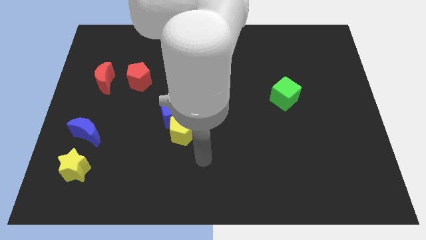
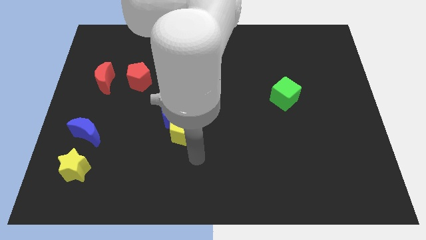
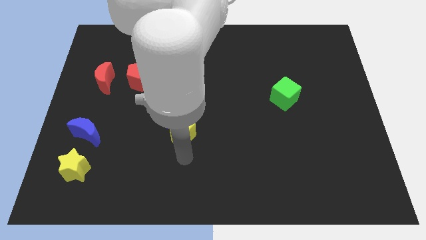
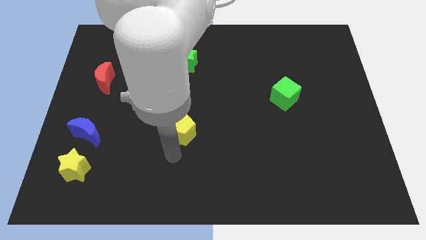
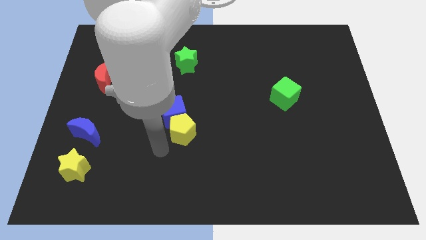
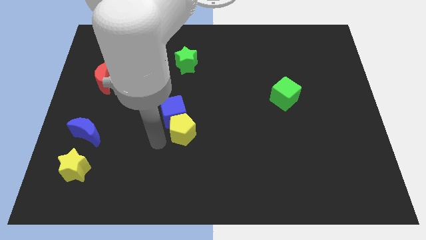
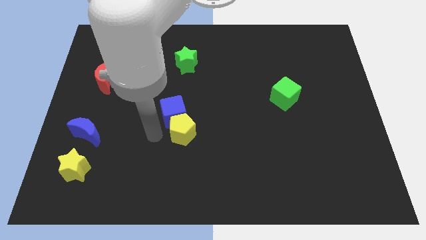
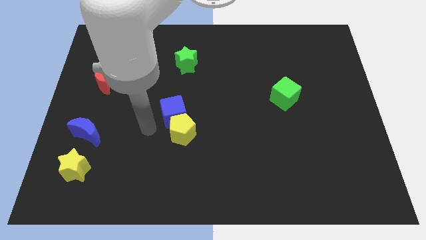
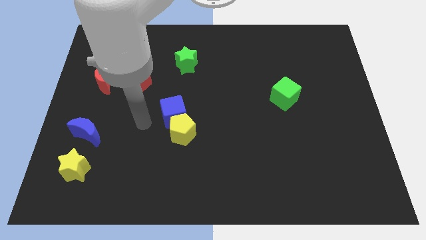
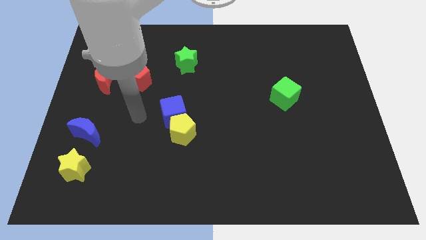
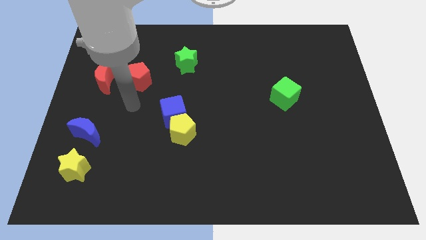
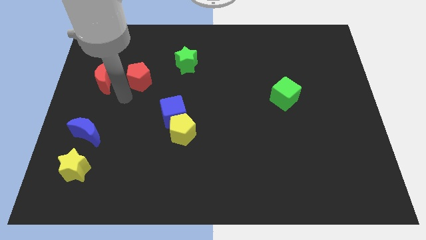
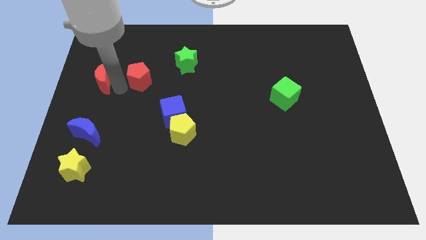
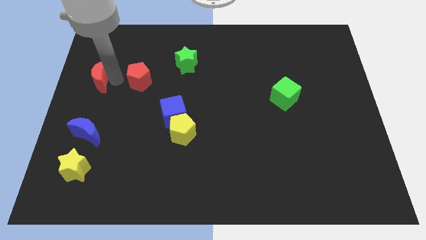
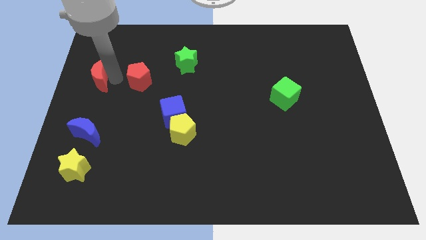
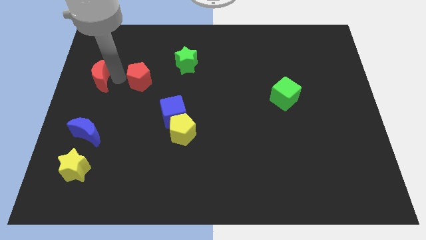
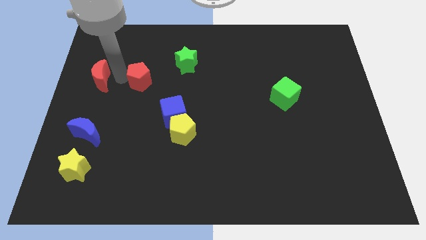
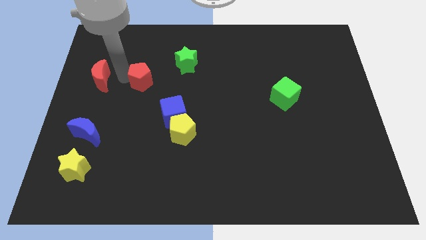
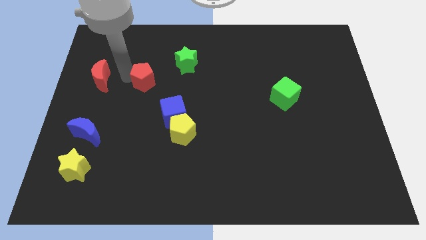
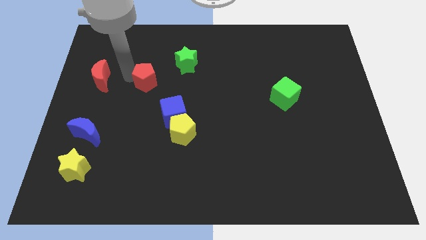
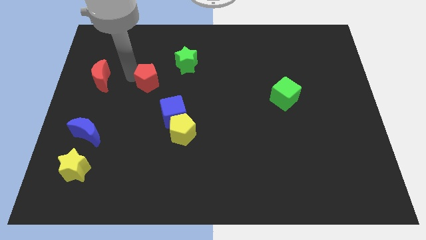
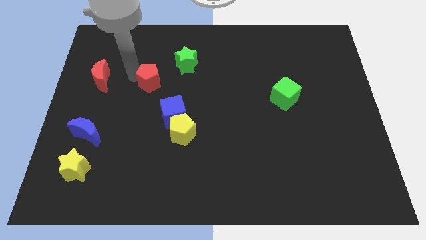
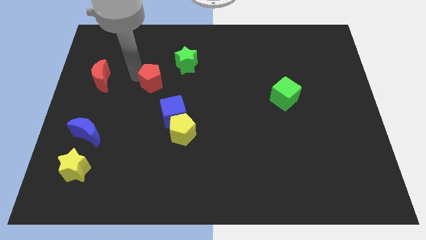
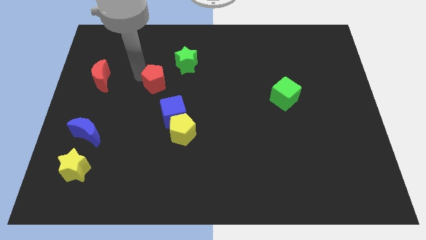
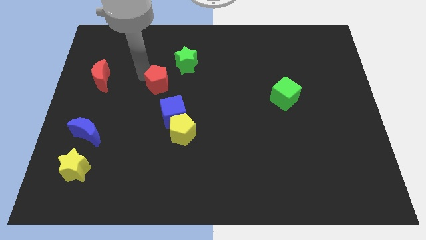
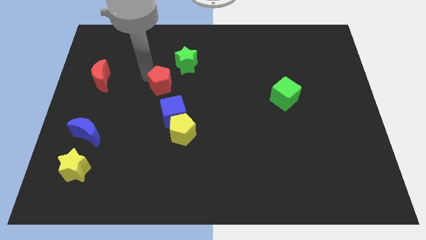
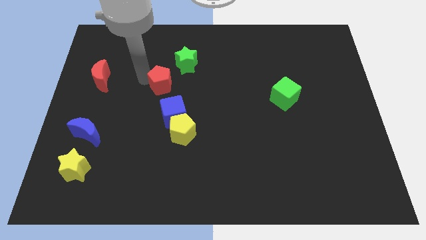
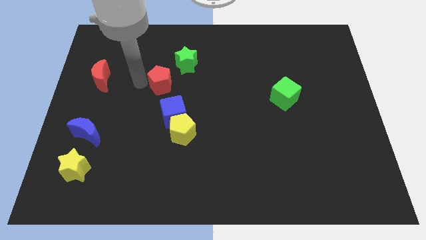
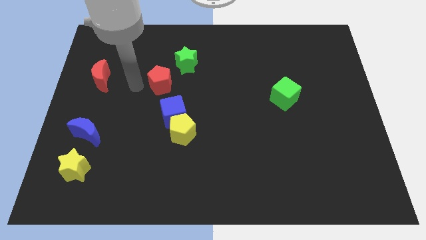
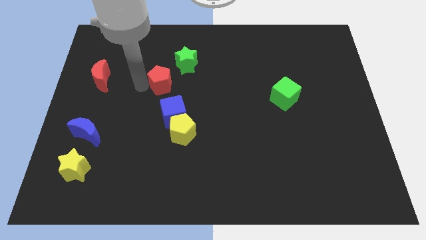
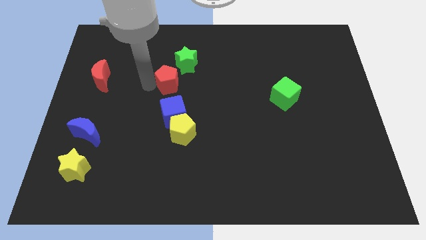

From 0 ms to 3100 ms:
push the red pentagon right a bit

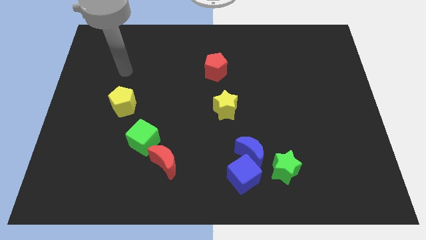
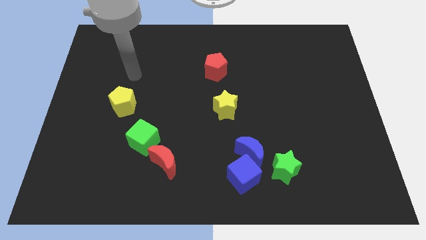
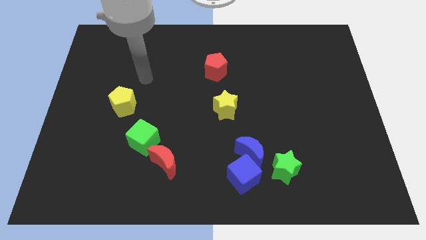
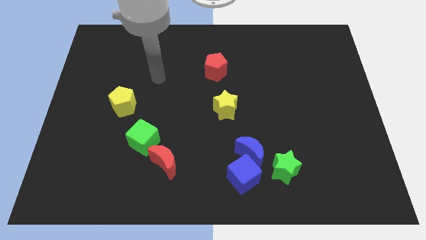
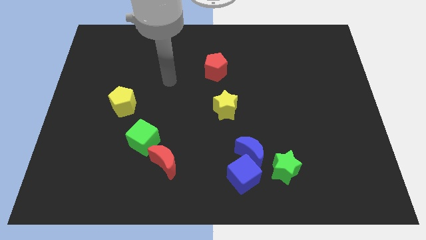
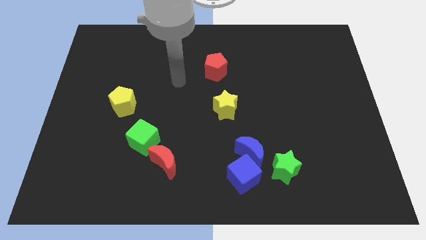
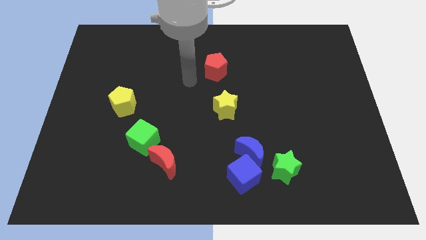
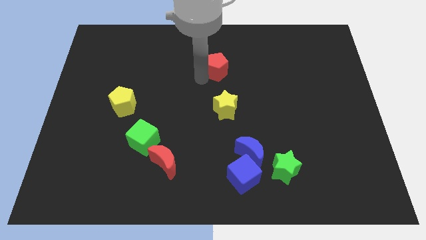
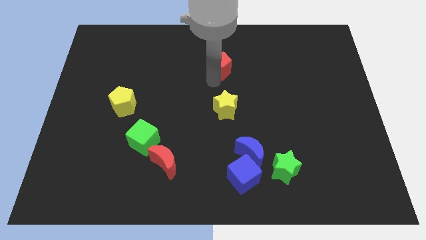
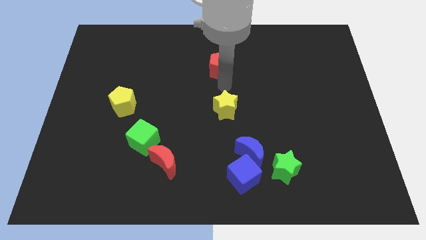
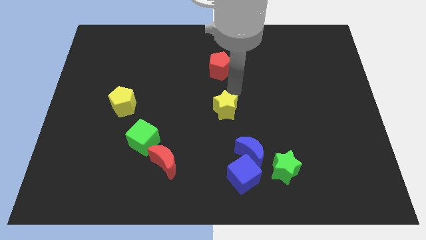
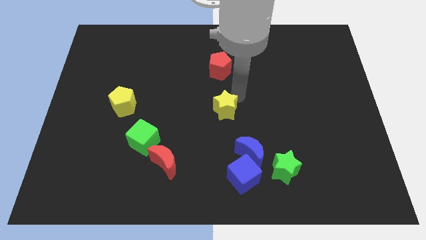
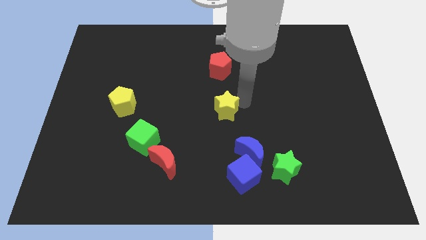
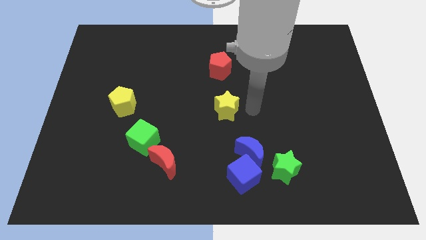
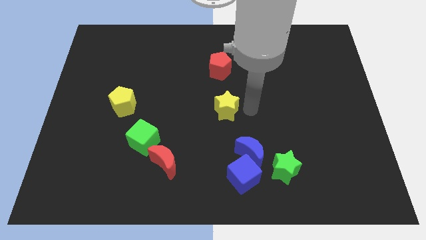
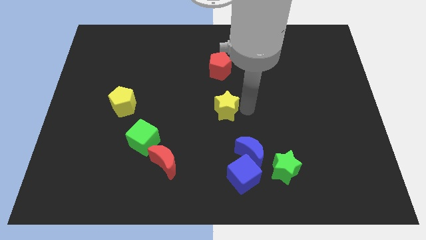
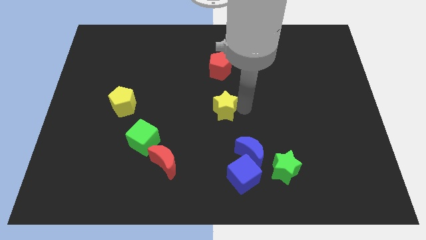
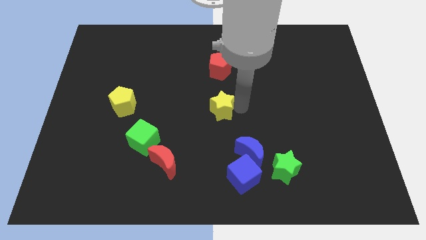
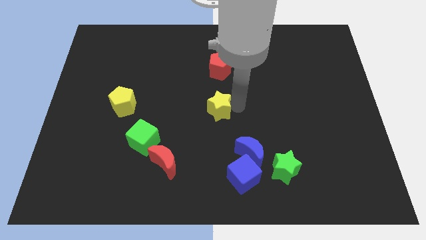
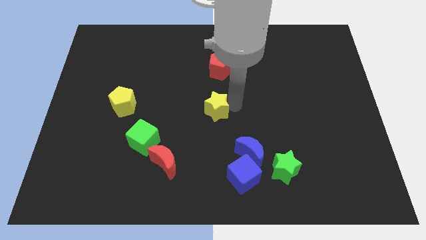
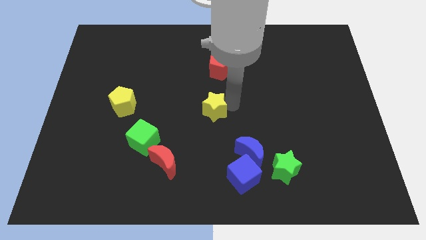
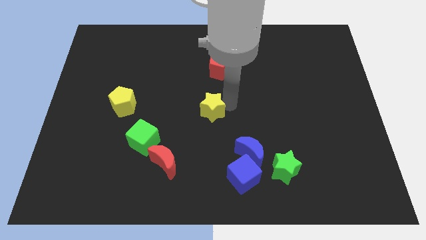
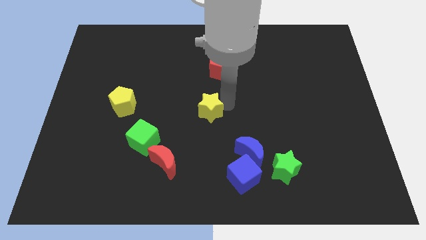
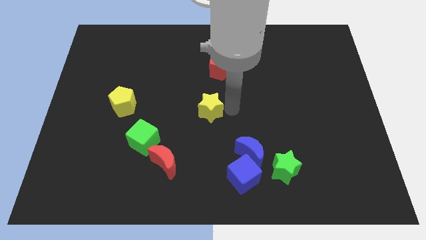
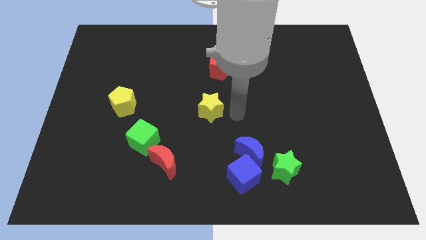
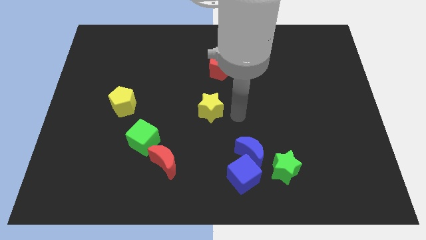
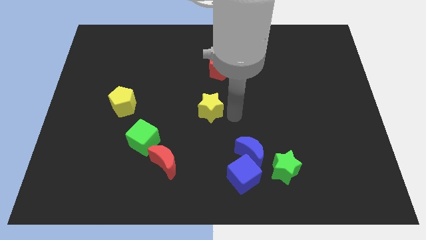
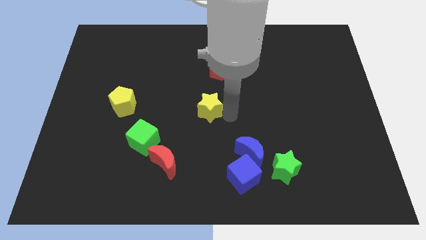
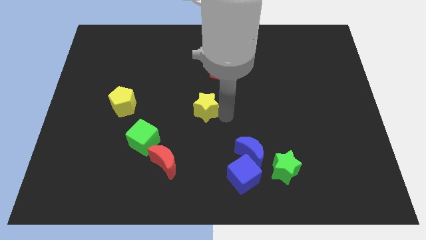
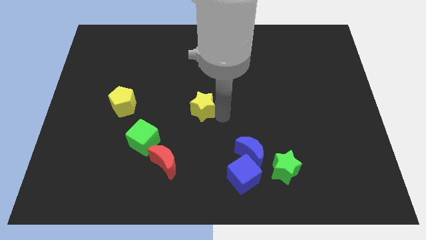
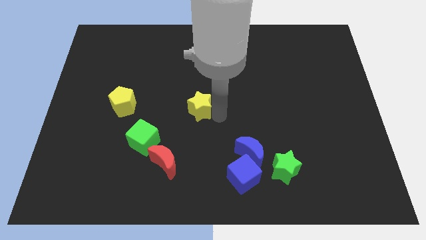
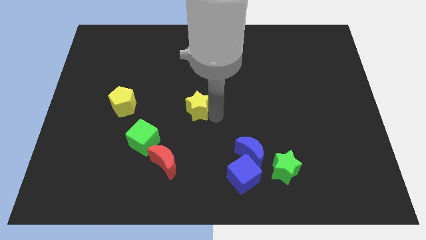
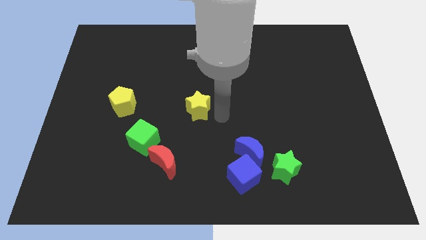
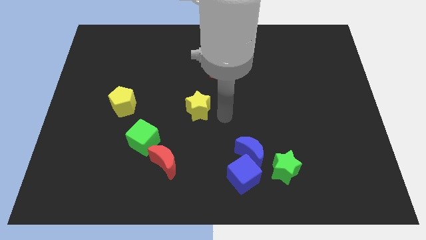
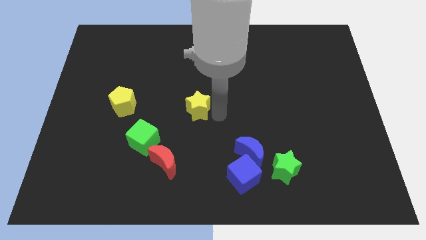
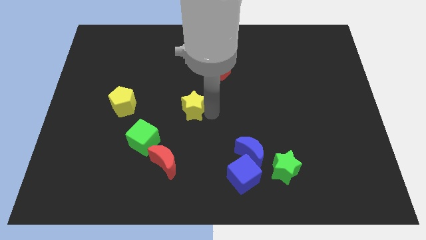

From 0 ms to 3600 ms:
push the yellow star a little left

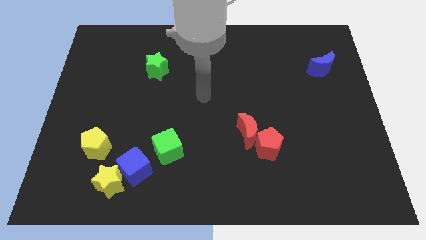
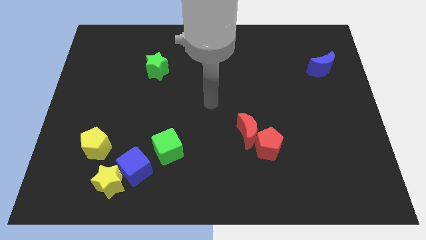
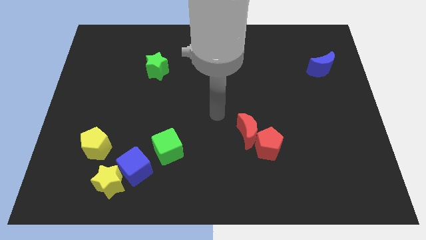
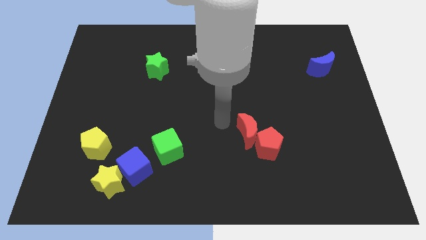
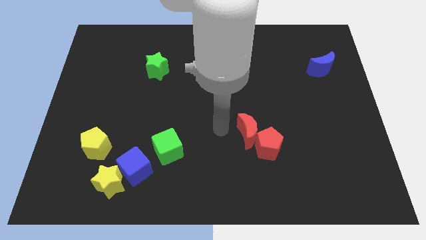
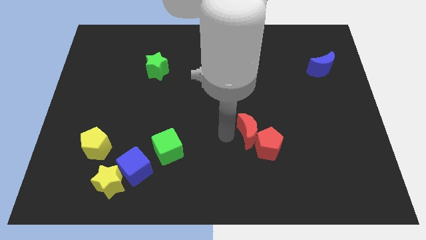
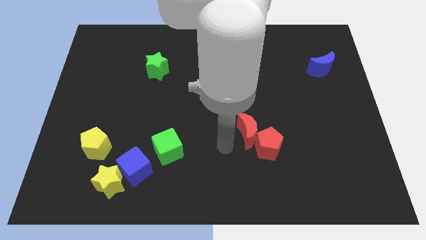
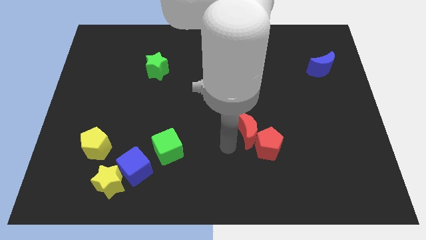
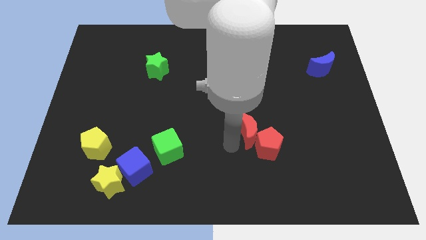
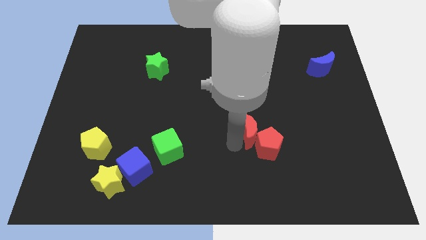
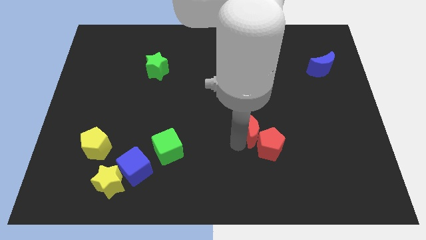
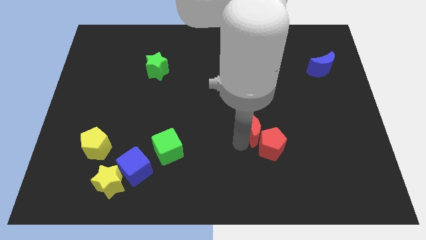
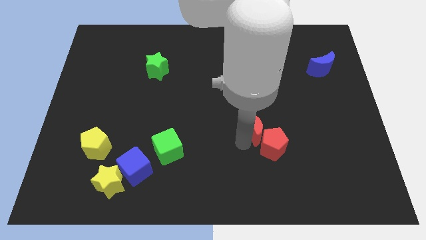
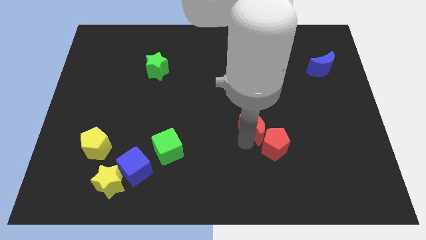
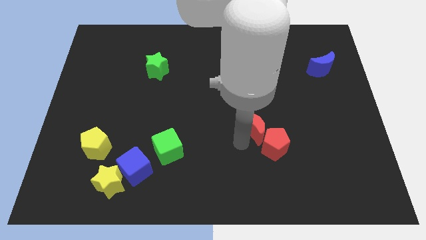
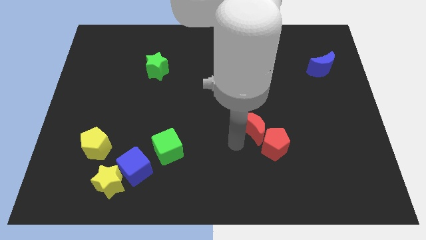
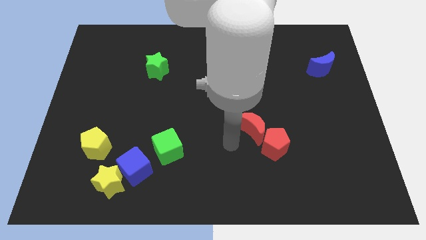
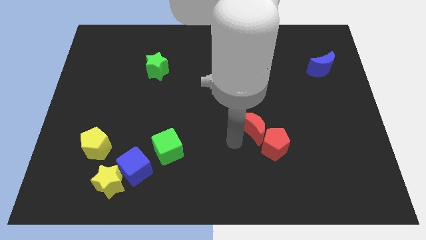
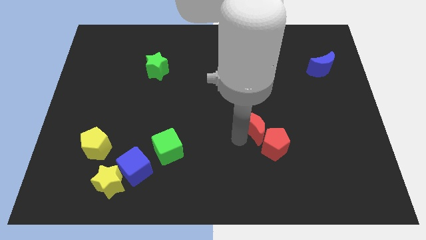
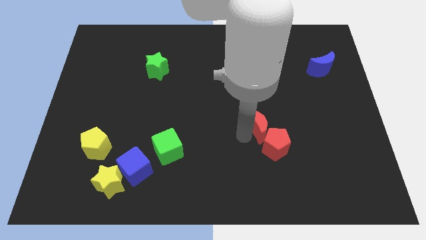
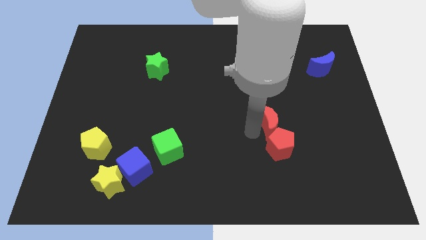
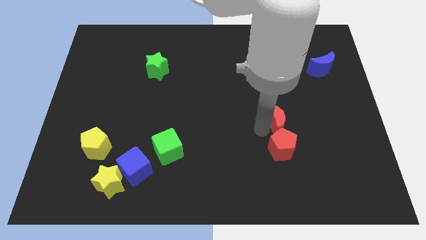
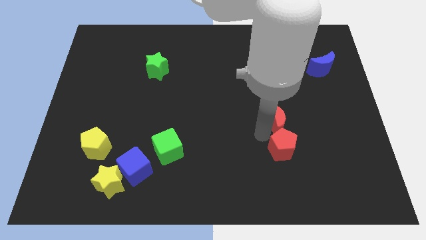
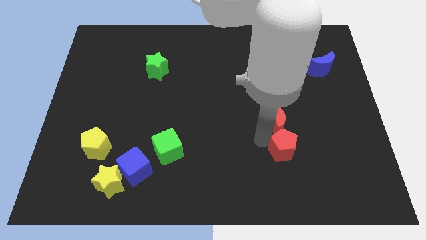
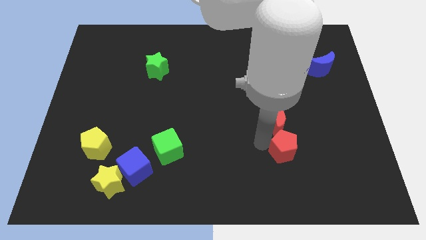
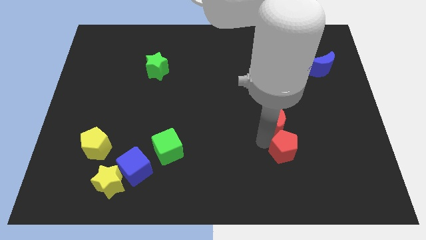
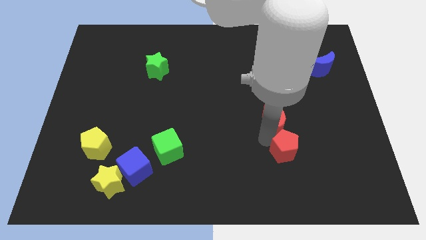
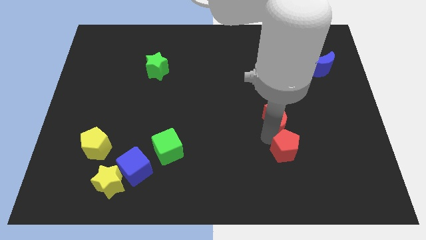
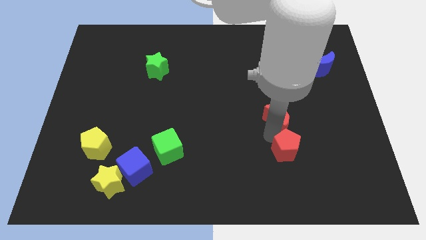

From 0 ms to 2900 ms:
slightly push the red moon up and right
